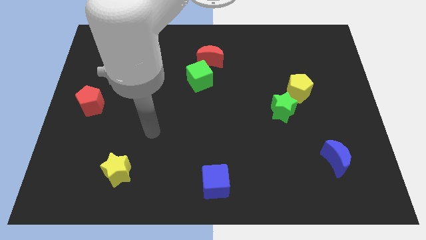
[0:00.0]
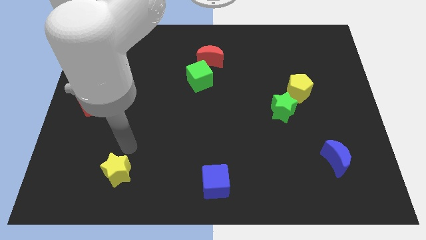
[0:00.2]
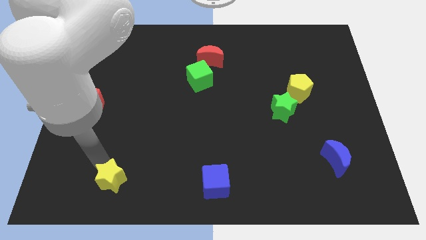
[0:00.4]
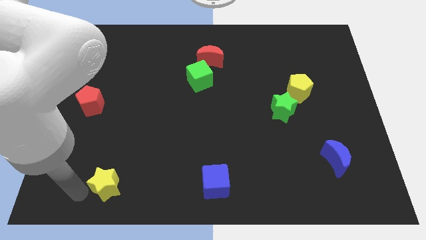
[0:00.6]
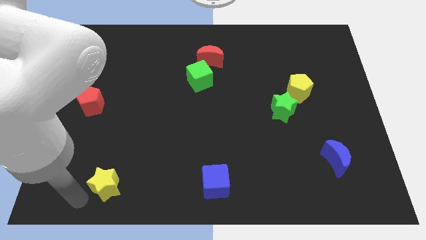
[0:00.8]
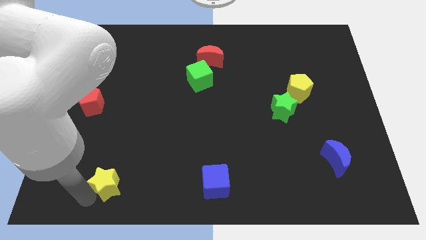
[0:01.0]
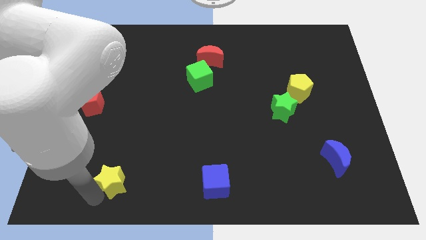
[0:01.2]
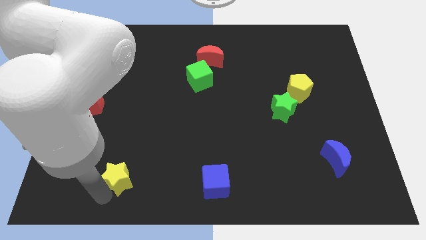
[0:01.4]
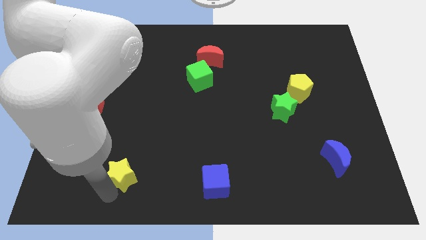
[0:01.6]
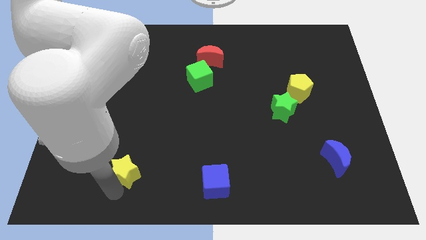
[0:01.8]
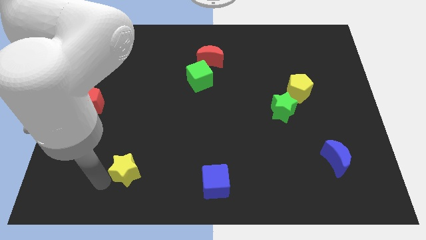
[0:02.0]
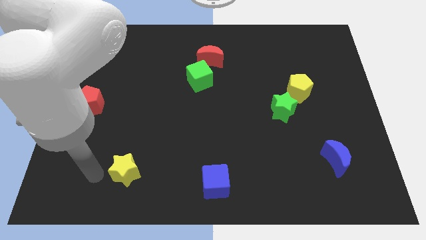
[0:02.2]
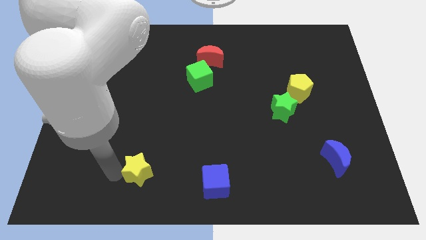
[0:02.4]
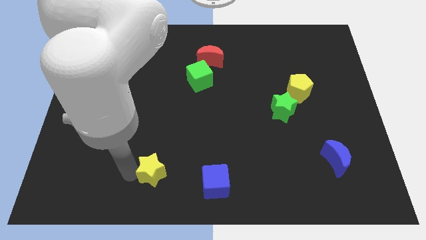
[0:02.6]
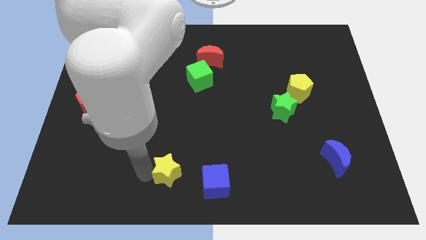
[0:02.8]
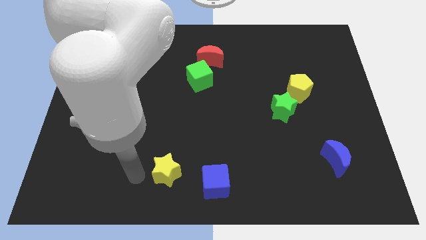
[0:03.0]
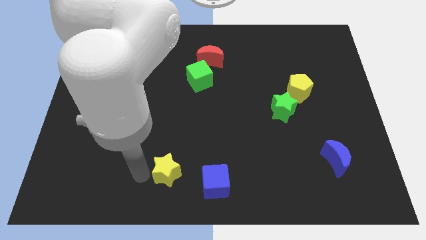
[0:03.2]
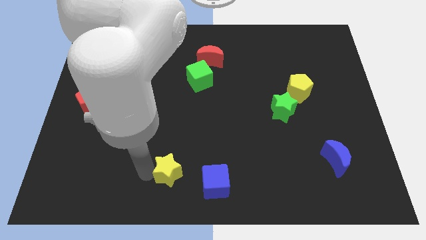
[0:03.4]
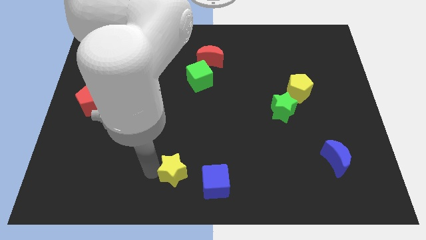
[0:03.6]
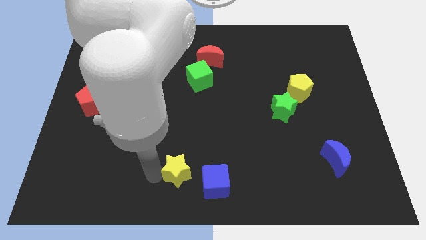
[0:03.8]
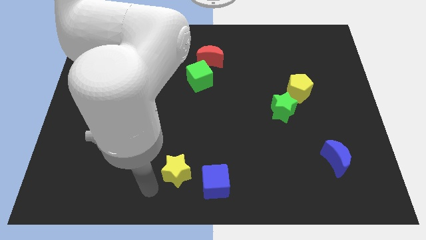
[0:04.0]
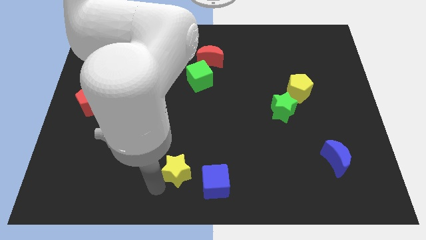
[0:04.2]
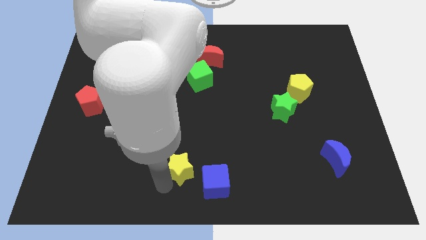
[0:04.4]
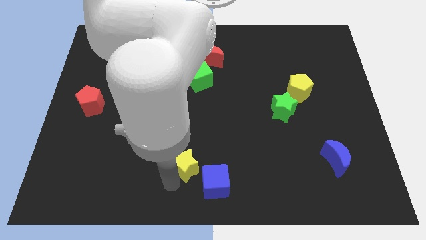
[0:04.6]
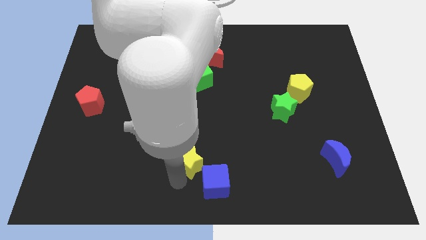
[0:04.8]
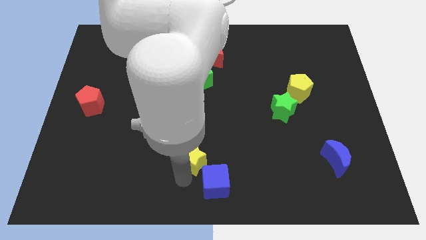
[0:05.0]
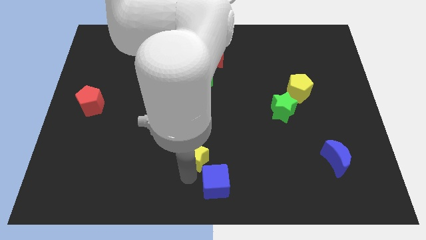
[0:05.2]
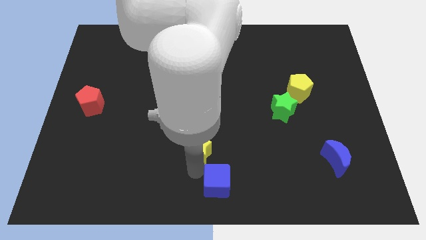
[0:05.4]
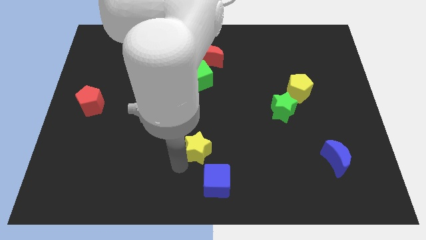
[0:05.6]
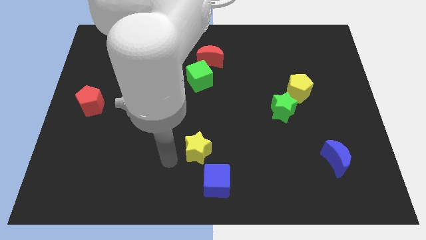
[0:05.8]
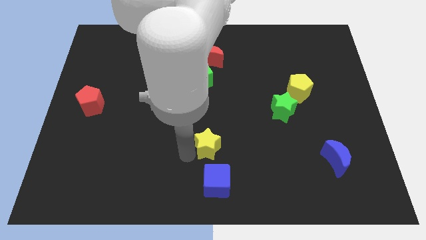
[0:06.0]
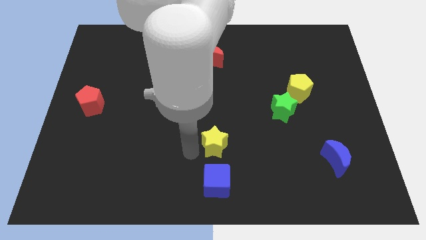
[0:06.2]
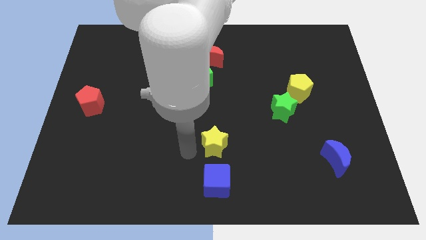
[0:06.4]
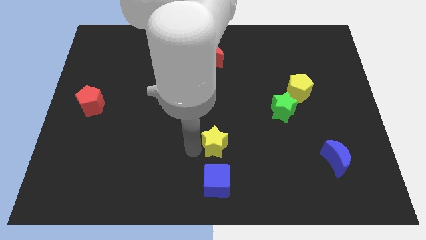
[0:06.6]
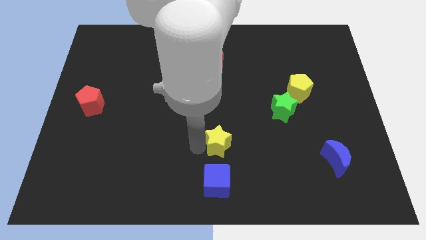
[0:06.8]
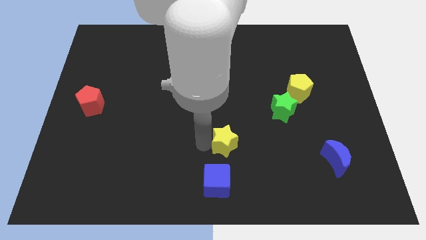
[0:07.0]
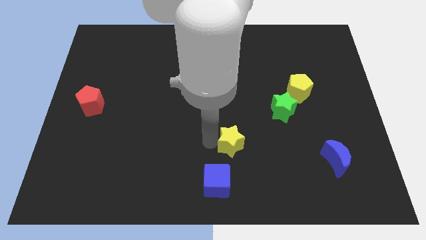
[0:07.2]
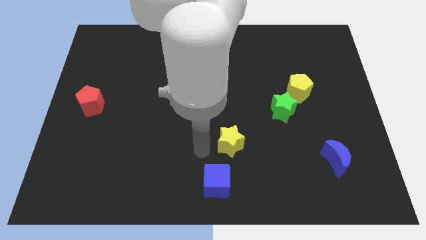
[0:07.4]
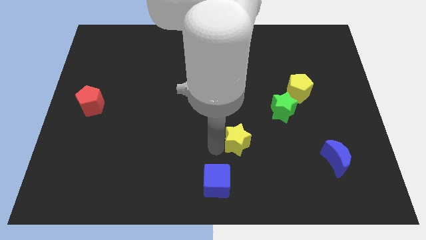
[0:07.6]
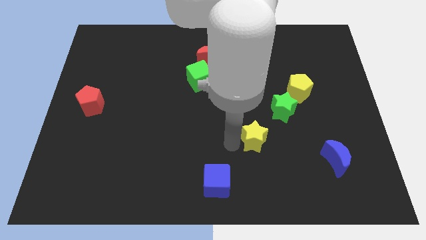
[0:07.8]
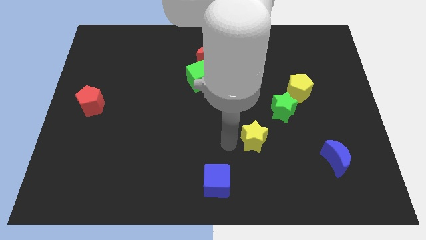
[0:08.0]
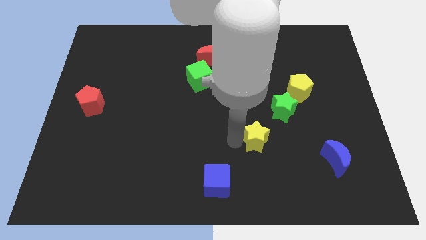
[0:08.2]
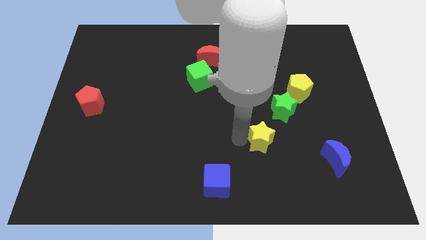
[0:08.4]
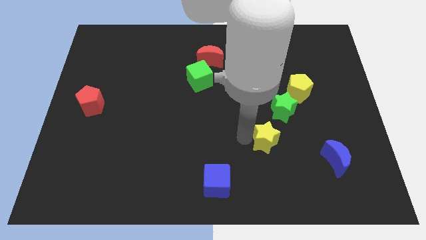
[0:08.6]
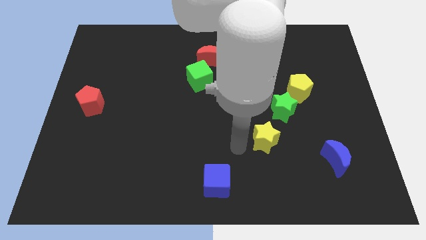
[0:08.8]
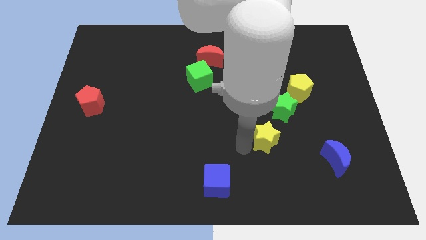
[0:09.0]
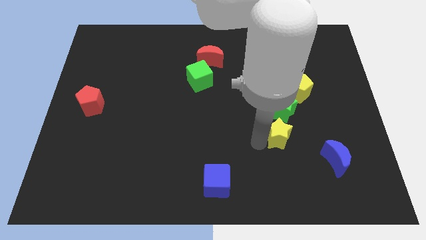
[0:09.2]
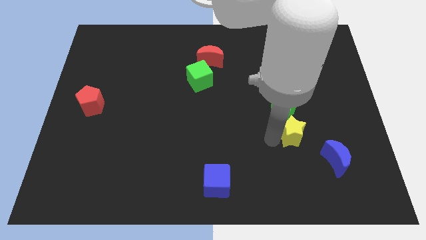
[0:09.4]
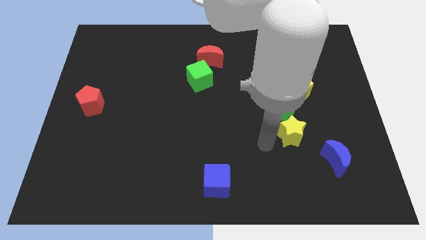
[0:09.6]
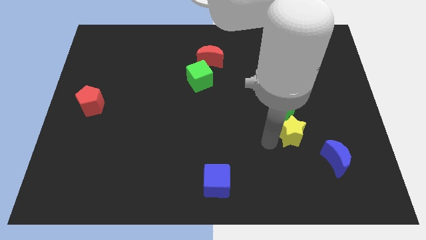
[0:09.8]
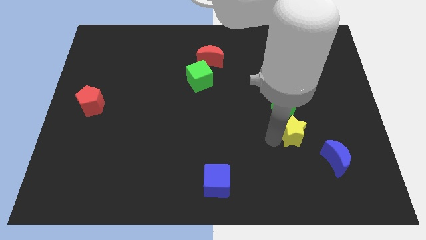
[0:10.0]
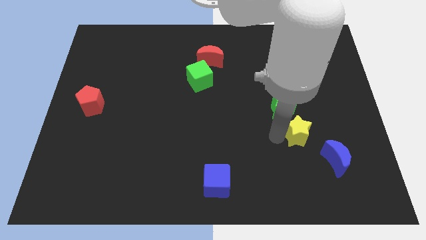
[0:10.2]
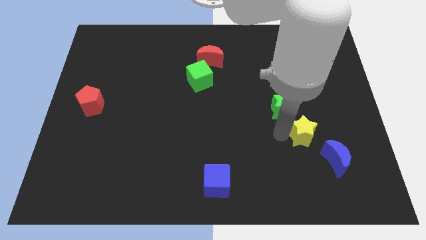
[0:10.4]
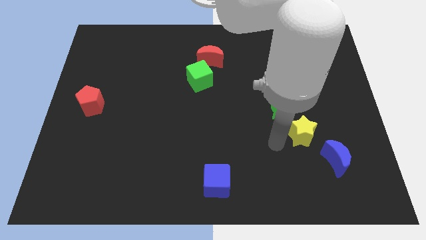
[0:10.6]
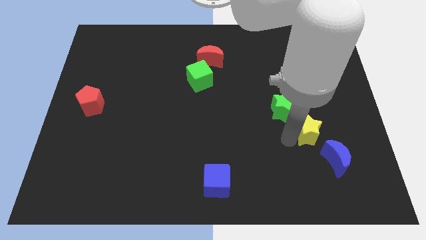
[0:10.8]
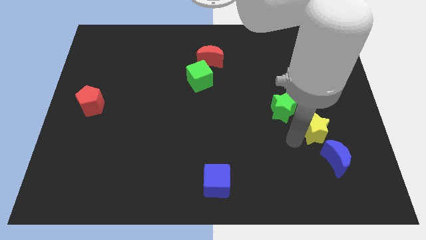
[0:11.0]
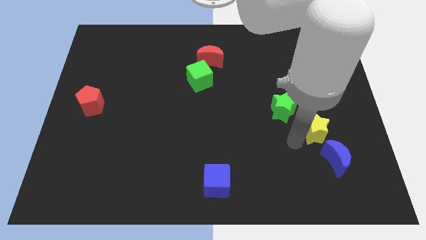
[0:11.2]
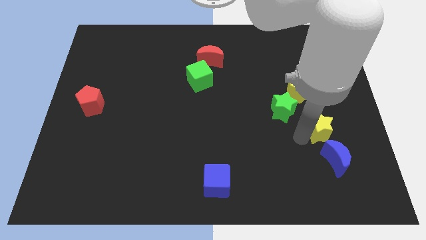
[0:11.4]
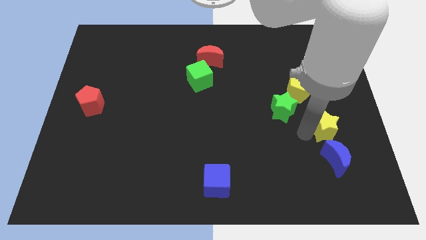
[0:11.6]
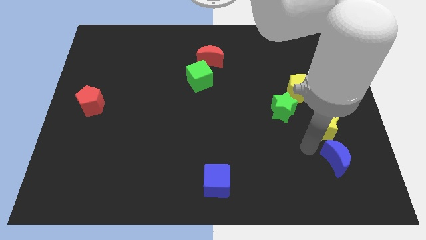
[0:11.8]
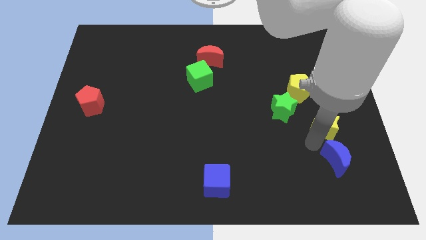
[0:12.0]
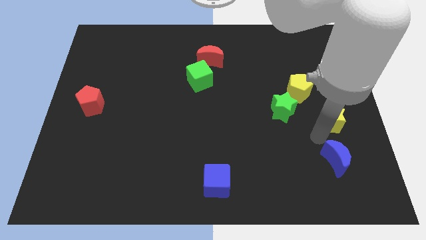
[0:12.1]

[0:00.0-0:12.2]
slide the yellow star to the right side

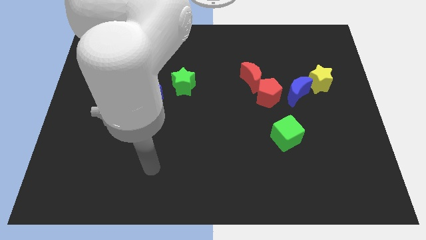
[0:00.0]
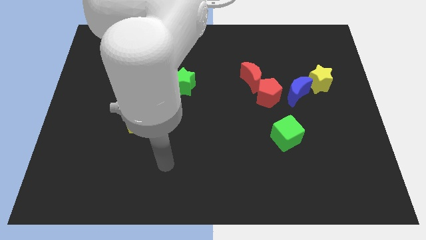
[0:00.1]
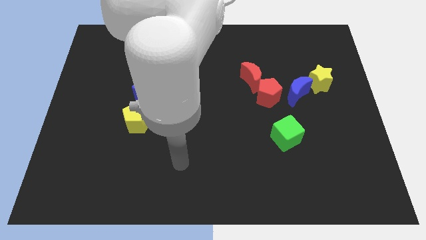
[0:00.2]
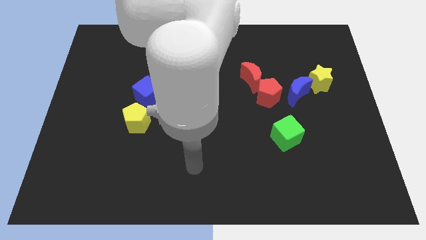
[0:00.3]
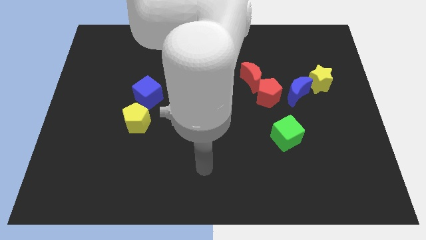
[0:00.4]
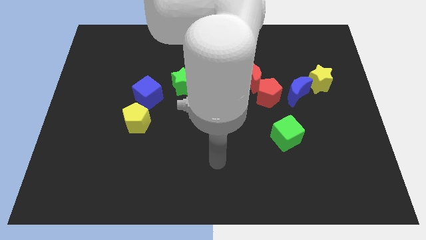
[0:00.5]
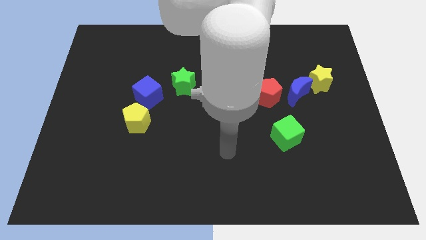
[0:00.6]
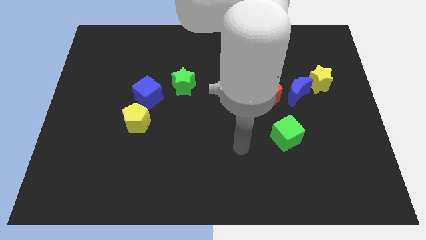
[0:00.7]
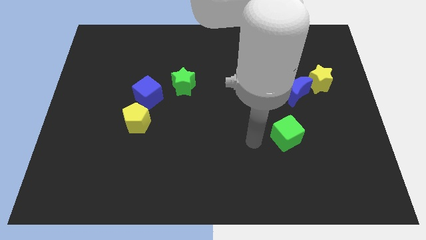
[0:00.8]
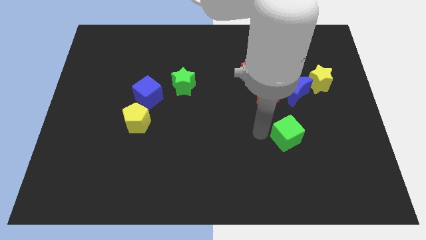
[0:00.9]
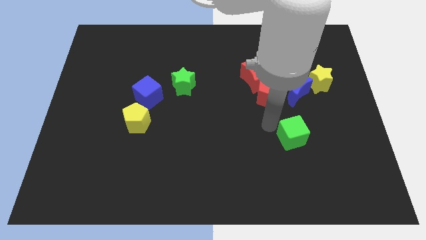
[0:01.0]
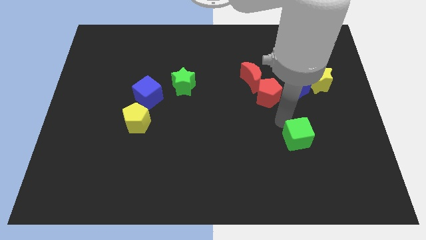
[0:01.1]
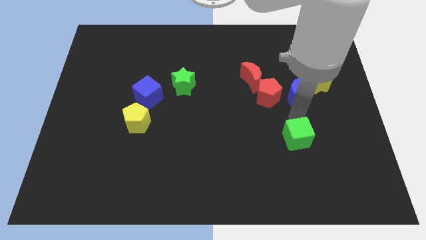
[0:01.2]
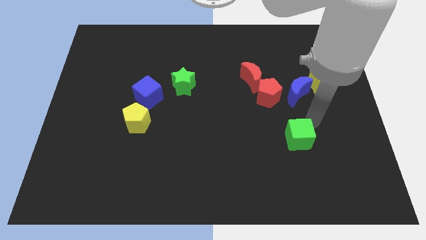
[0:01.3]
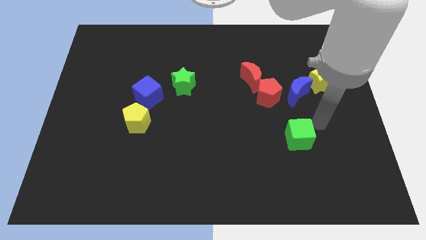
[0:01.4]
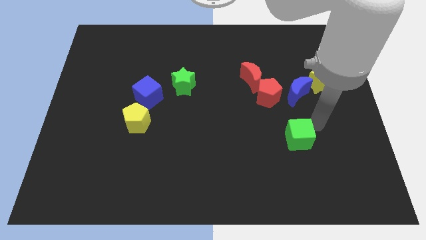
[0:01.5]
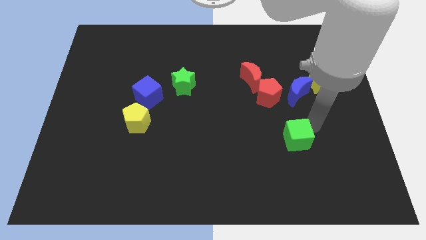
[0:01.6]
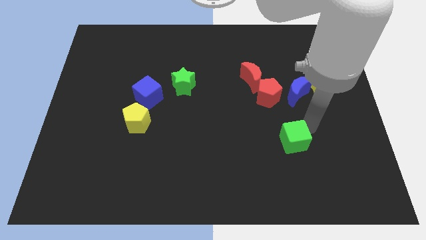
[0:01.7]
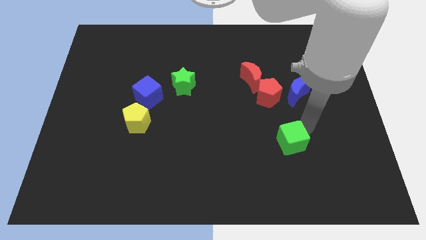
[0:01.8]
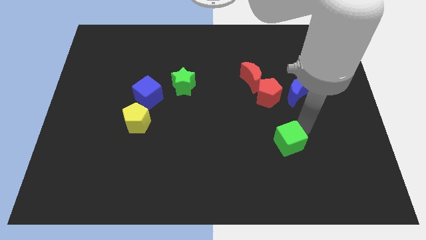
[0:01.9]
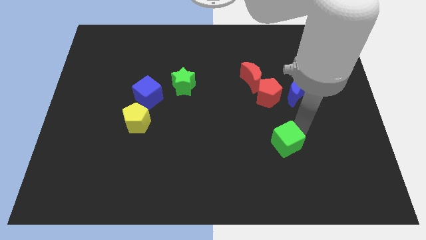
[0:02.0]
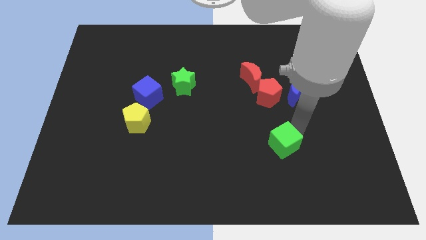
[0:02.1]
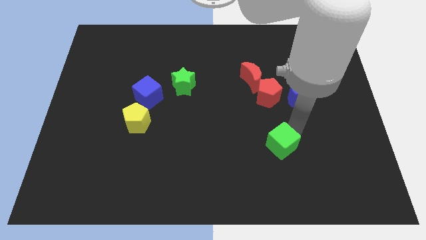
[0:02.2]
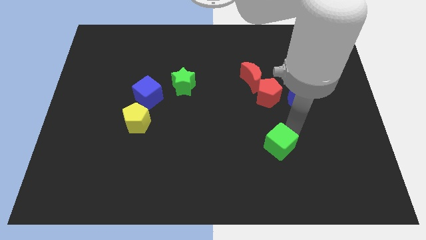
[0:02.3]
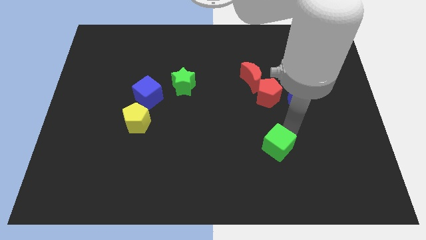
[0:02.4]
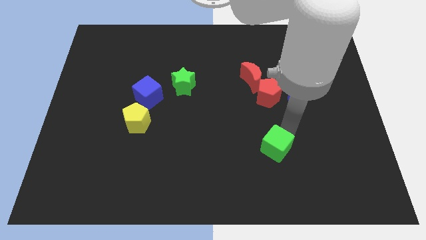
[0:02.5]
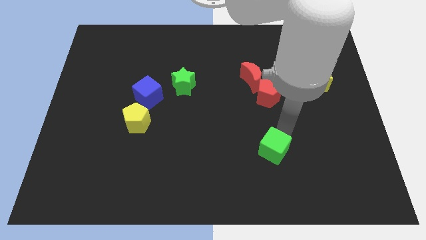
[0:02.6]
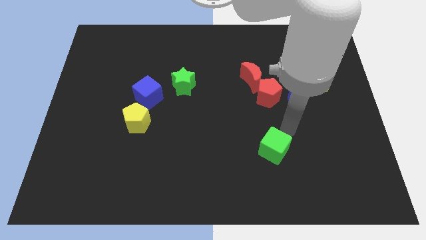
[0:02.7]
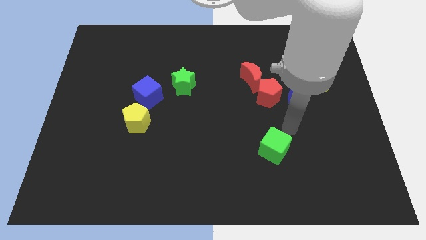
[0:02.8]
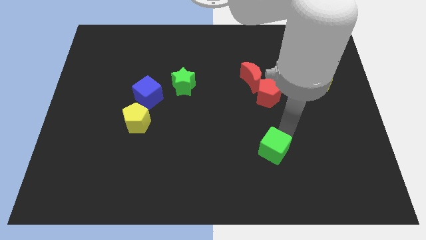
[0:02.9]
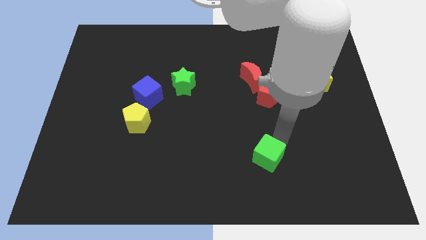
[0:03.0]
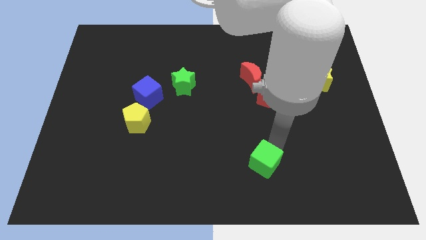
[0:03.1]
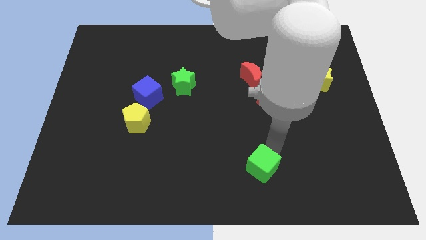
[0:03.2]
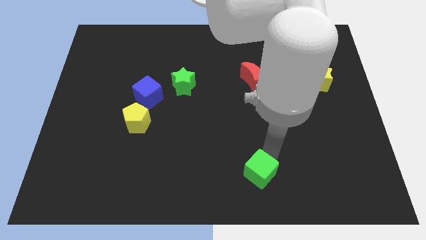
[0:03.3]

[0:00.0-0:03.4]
put the green cube to the bottom side
